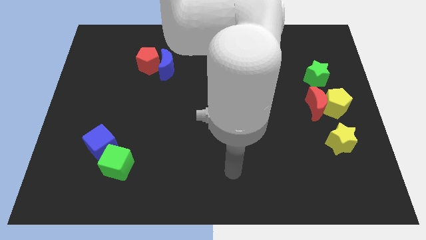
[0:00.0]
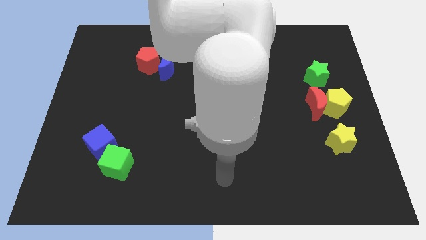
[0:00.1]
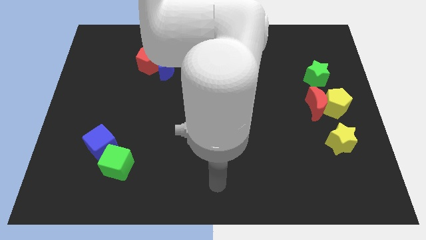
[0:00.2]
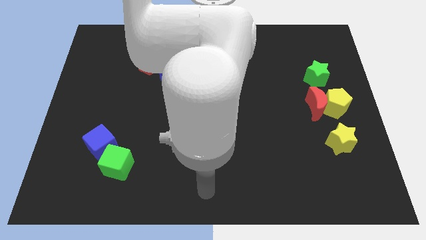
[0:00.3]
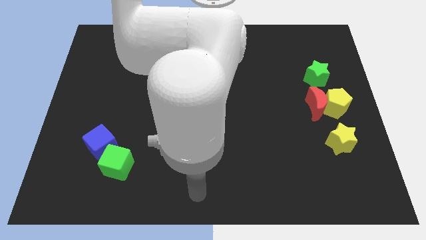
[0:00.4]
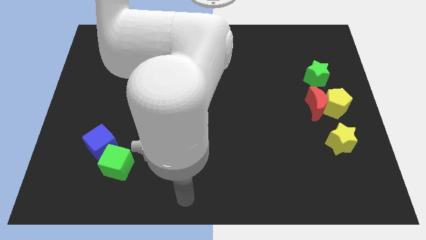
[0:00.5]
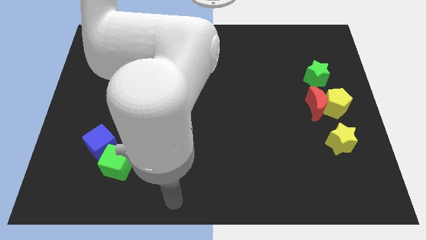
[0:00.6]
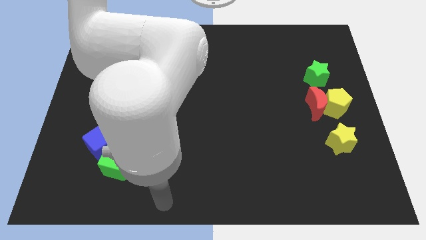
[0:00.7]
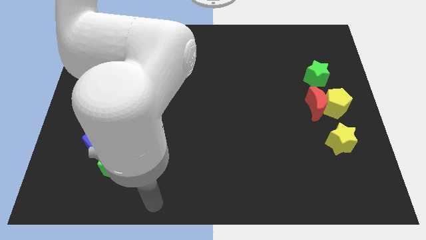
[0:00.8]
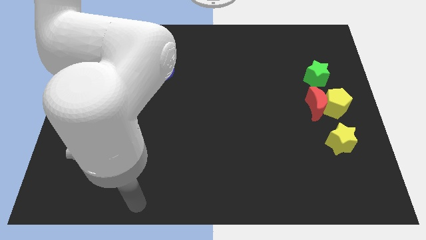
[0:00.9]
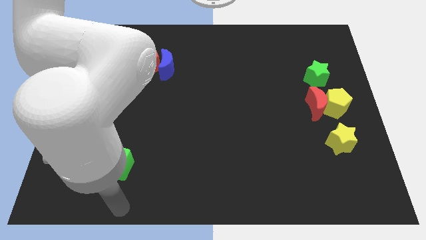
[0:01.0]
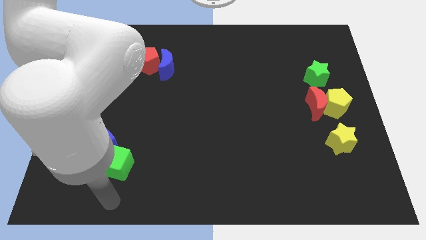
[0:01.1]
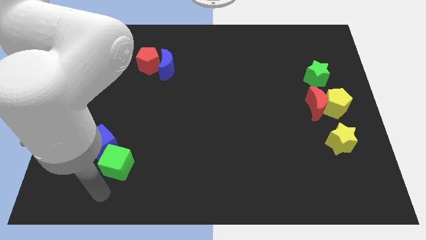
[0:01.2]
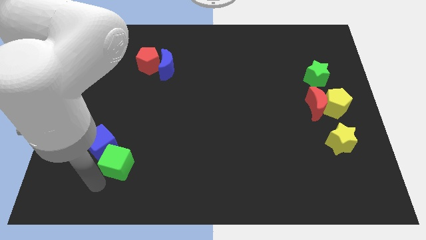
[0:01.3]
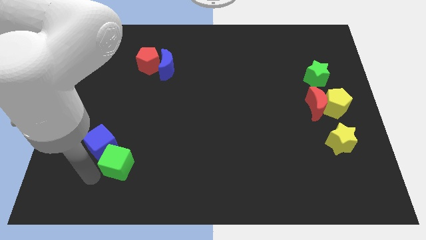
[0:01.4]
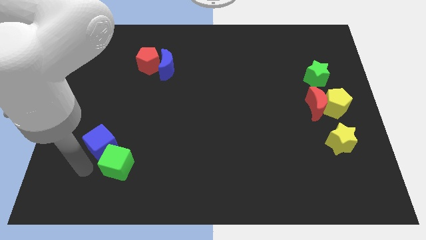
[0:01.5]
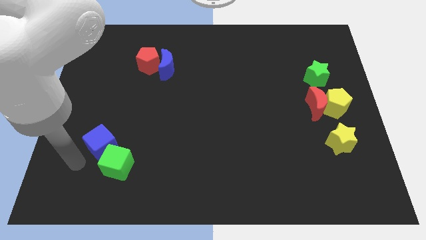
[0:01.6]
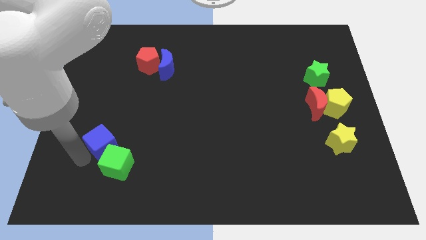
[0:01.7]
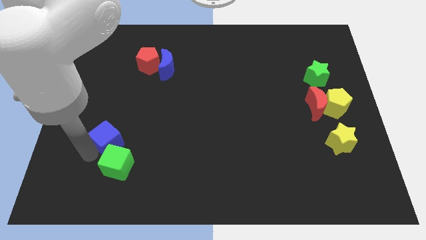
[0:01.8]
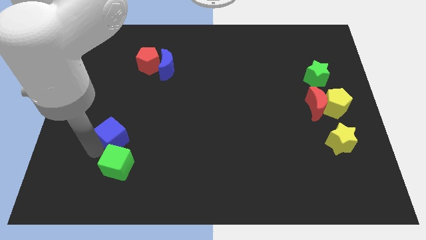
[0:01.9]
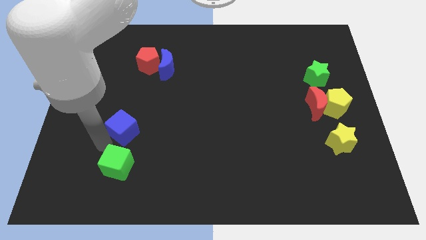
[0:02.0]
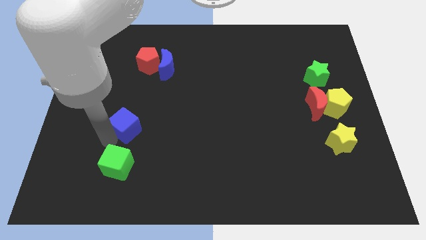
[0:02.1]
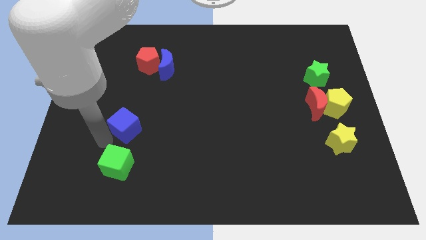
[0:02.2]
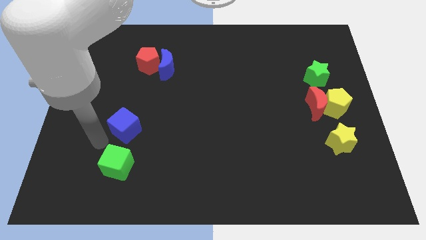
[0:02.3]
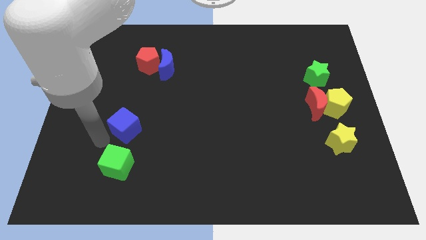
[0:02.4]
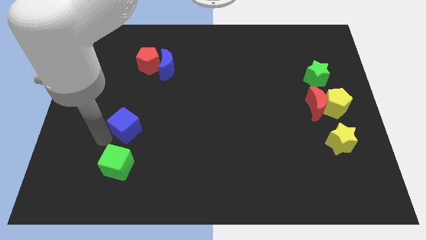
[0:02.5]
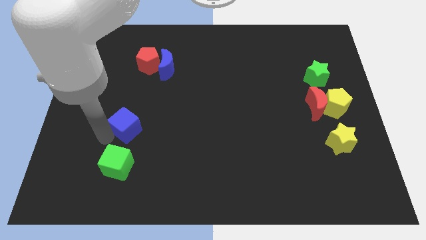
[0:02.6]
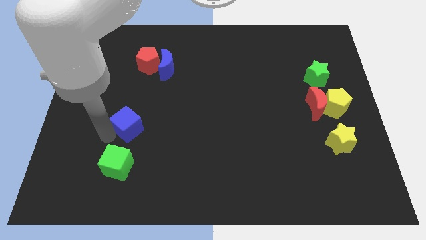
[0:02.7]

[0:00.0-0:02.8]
slide the blue cube a little up and then to the right

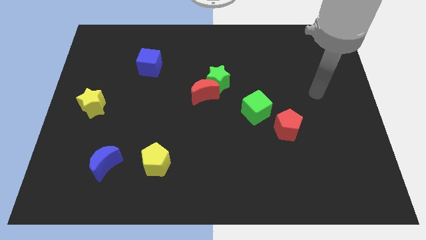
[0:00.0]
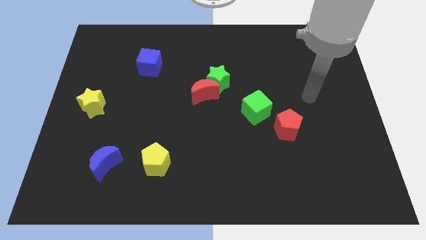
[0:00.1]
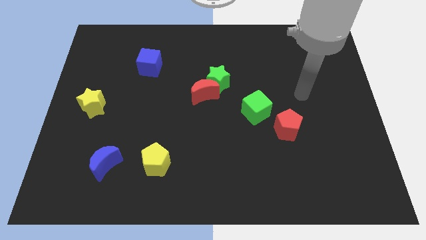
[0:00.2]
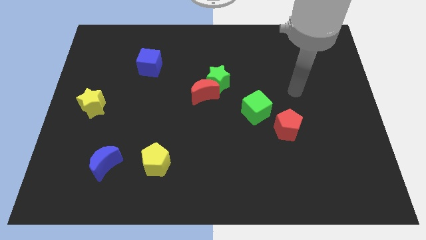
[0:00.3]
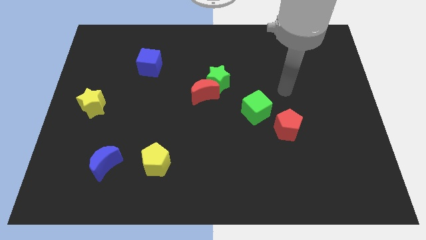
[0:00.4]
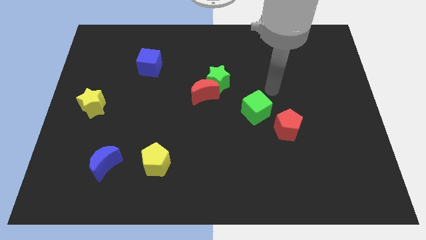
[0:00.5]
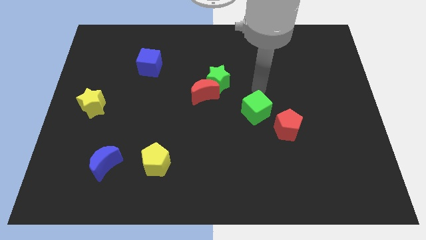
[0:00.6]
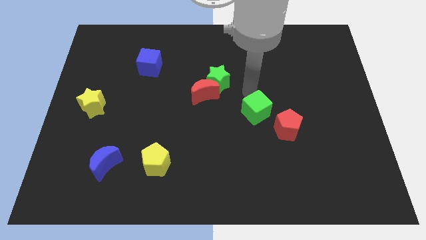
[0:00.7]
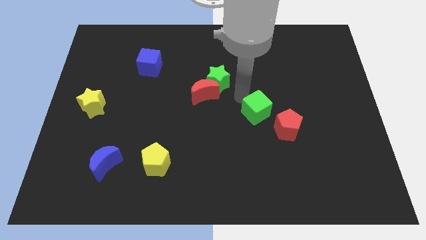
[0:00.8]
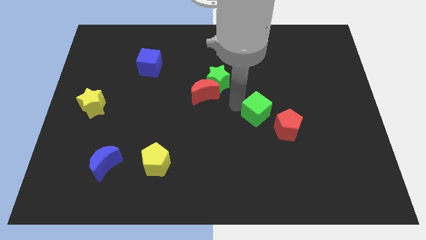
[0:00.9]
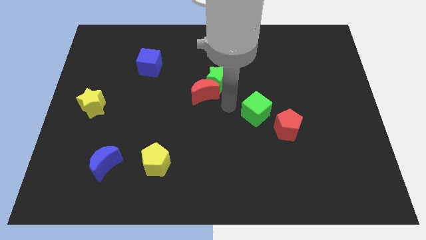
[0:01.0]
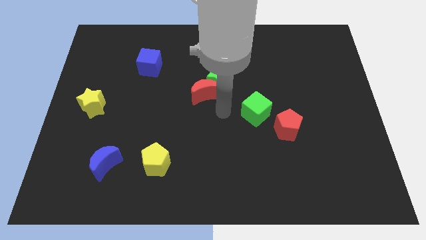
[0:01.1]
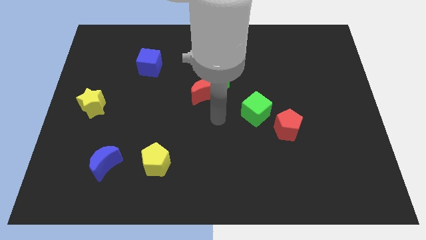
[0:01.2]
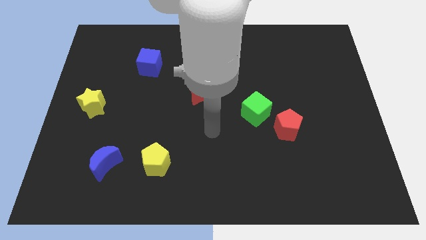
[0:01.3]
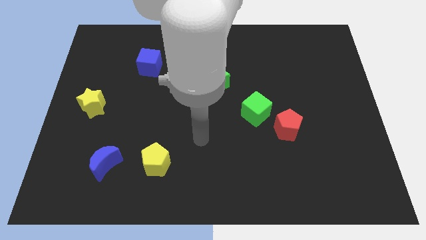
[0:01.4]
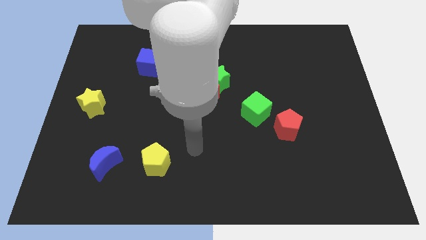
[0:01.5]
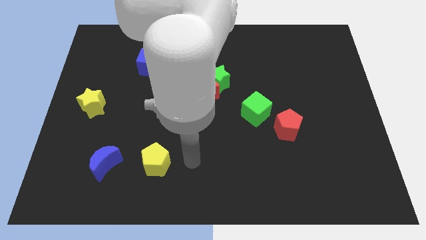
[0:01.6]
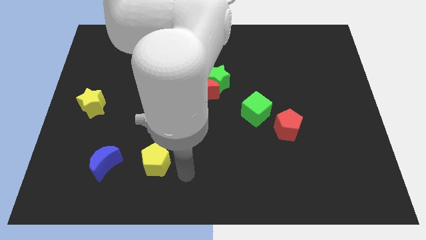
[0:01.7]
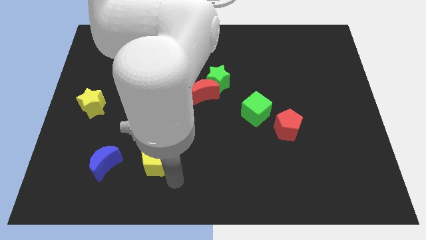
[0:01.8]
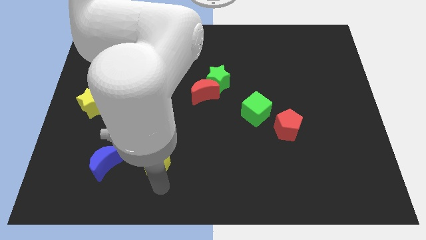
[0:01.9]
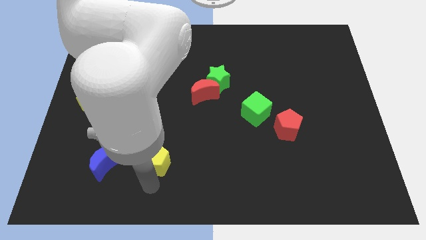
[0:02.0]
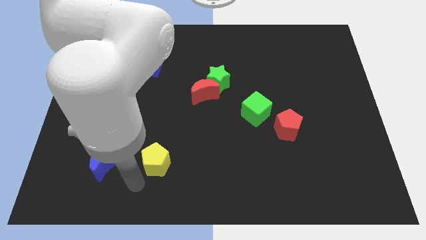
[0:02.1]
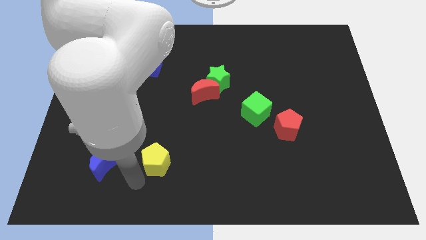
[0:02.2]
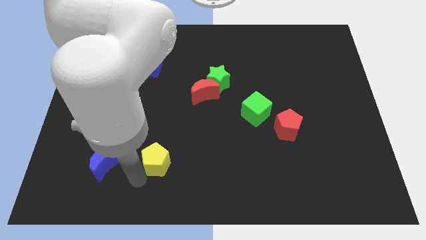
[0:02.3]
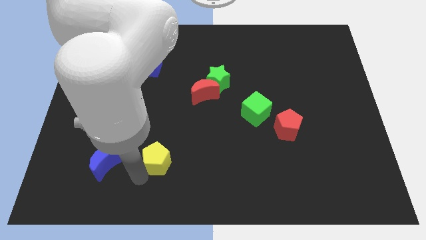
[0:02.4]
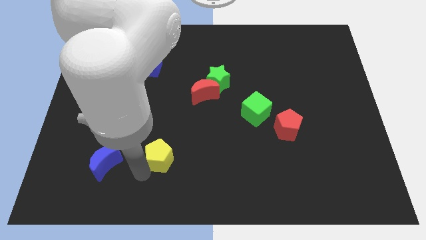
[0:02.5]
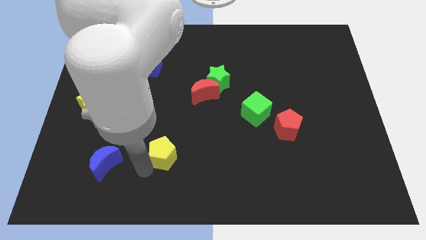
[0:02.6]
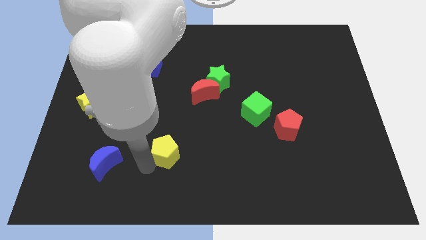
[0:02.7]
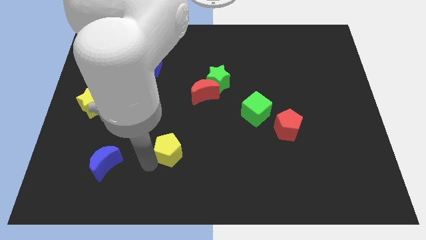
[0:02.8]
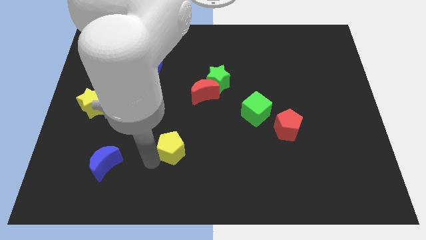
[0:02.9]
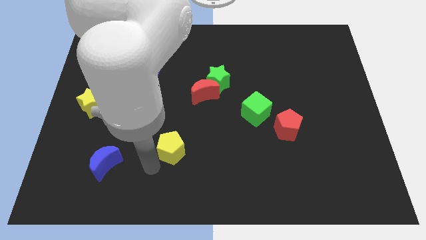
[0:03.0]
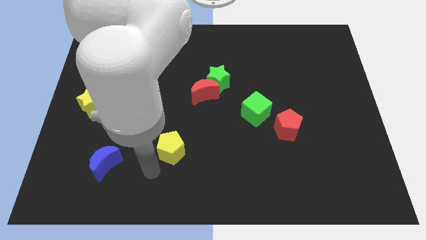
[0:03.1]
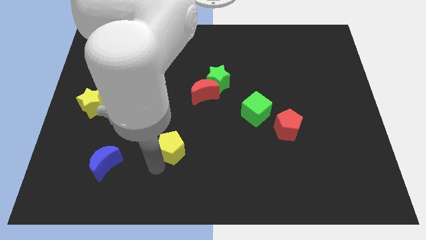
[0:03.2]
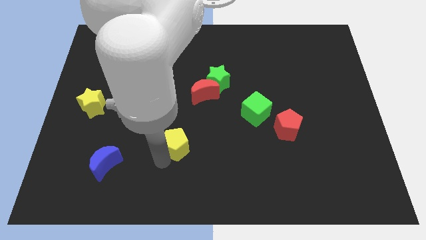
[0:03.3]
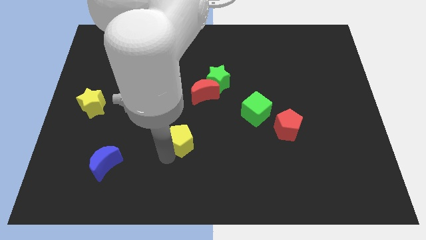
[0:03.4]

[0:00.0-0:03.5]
slide the yellow pentagon a little bit upwards and then to the right

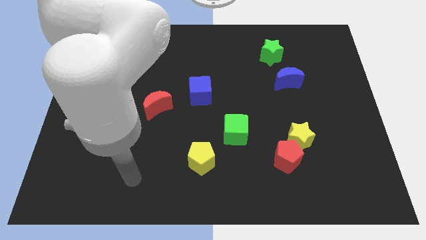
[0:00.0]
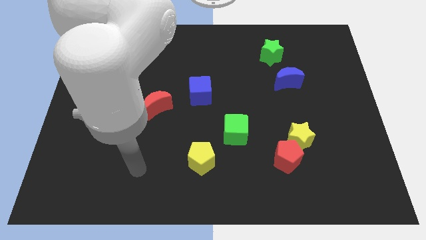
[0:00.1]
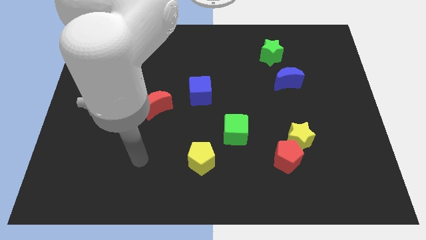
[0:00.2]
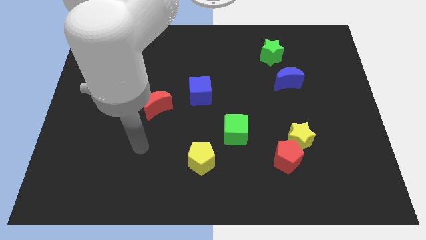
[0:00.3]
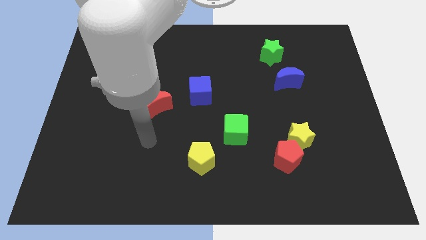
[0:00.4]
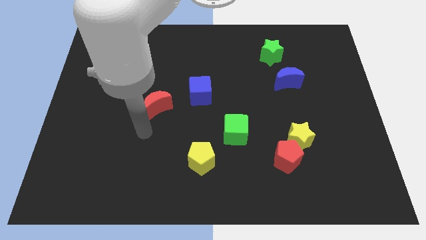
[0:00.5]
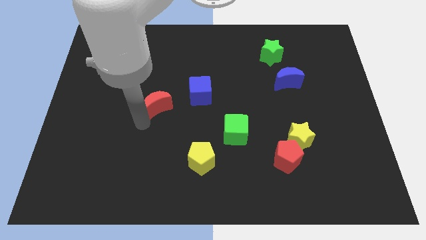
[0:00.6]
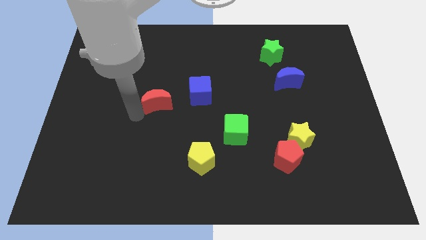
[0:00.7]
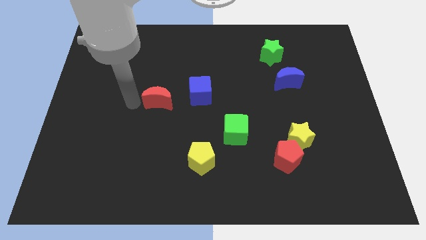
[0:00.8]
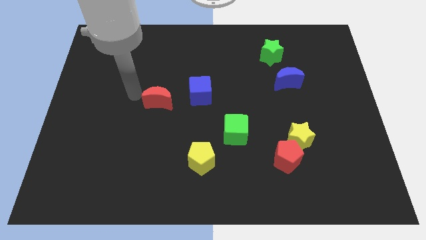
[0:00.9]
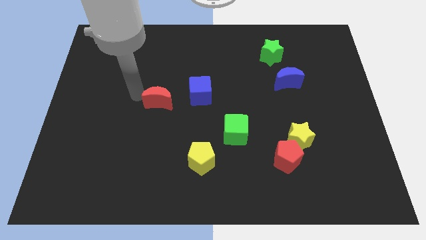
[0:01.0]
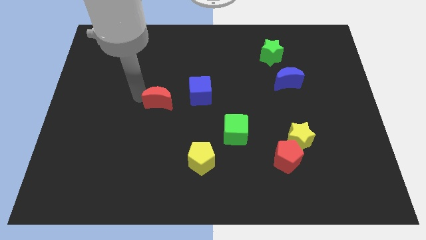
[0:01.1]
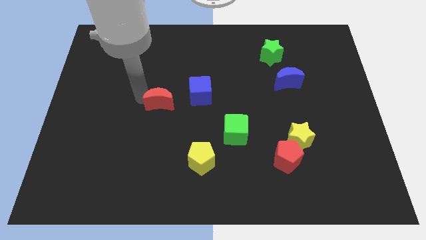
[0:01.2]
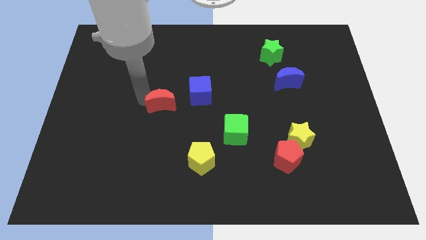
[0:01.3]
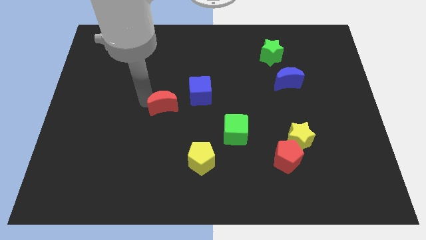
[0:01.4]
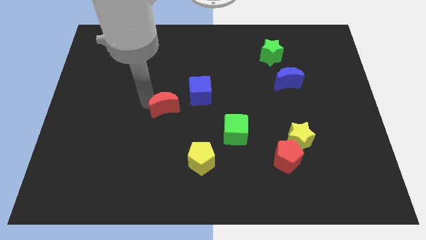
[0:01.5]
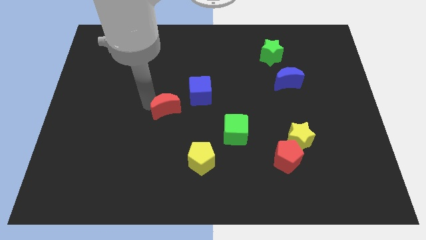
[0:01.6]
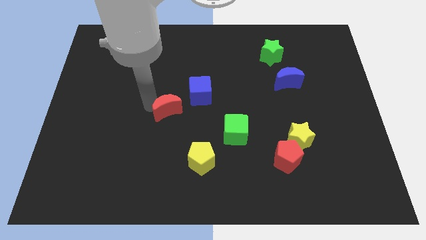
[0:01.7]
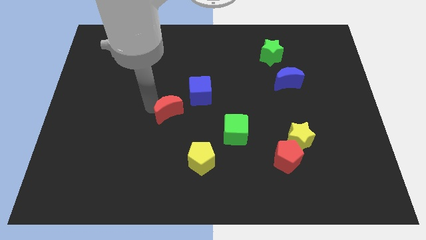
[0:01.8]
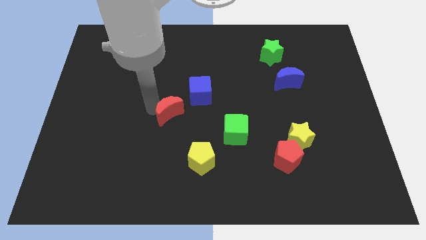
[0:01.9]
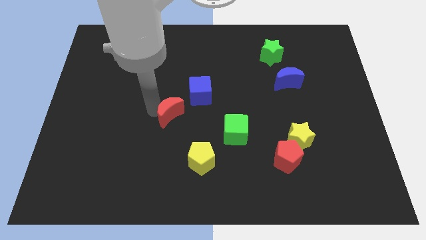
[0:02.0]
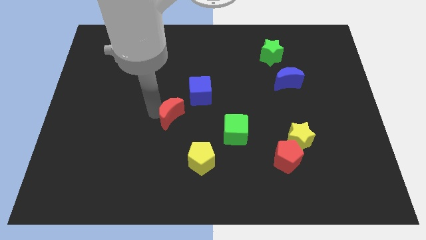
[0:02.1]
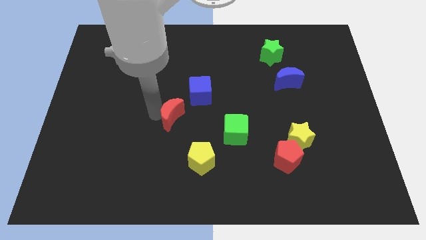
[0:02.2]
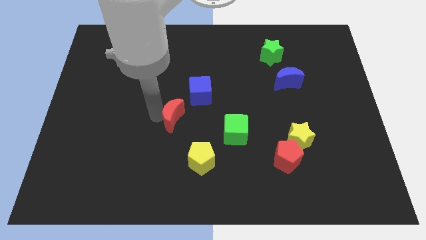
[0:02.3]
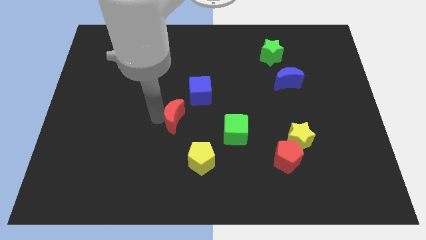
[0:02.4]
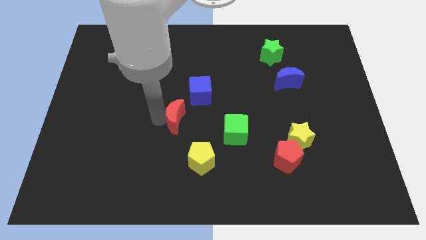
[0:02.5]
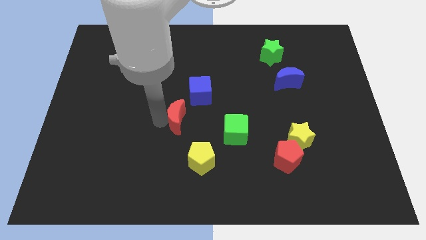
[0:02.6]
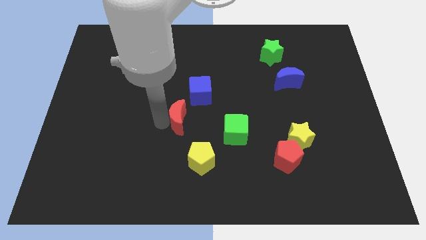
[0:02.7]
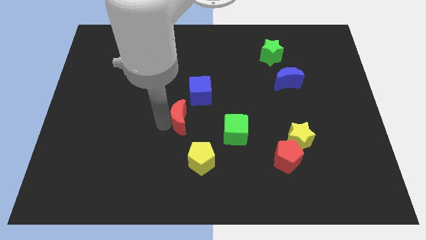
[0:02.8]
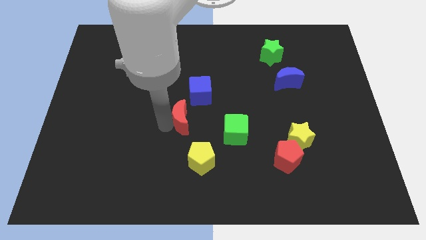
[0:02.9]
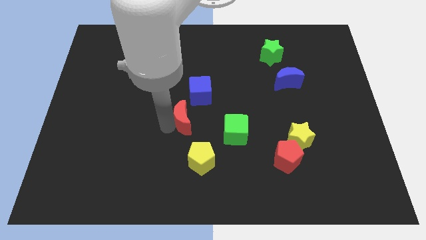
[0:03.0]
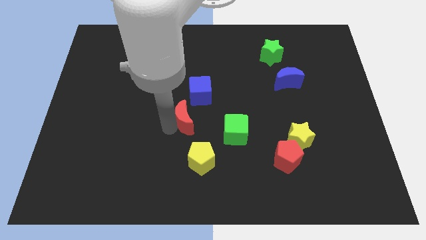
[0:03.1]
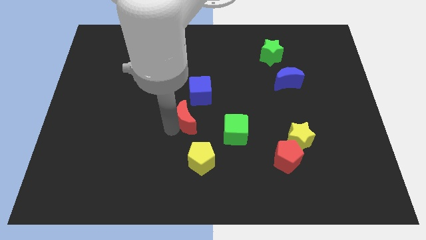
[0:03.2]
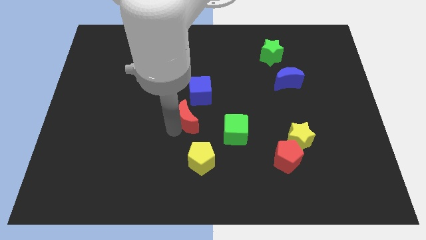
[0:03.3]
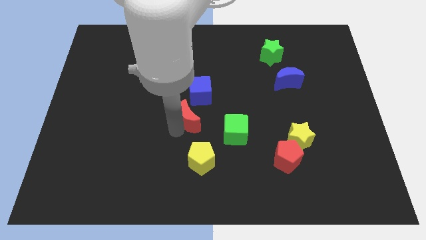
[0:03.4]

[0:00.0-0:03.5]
slightly move the red moon to the right
